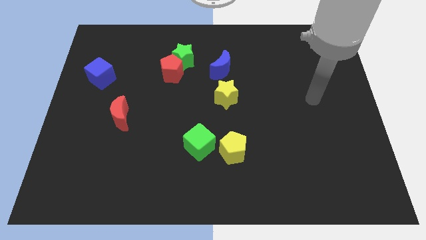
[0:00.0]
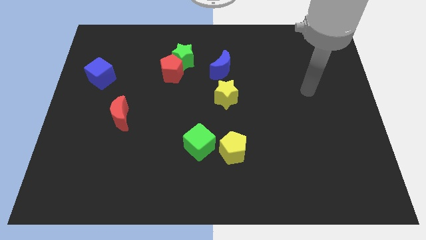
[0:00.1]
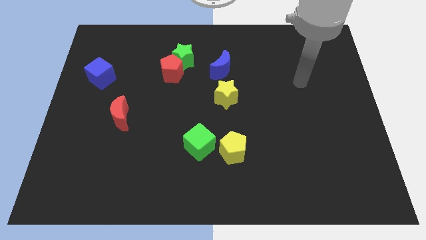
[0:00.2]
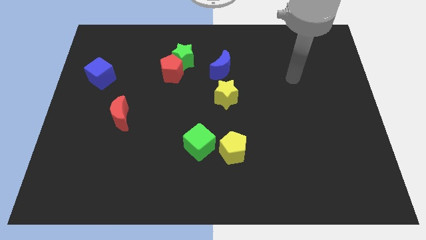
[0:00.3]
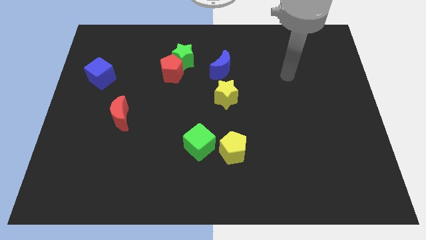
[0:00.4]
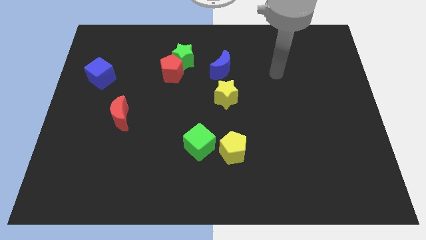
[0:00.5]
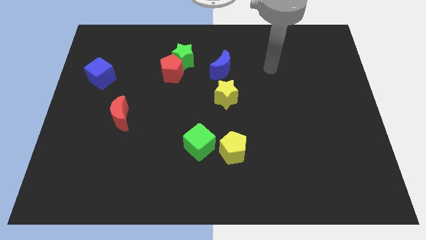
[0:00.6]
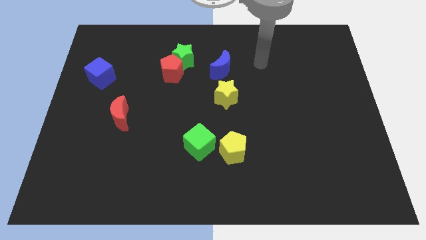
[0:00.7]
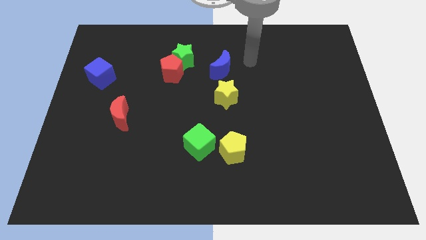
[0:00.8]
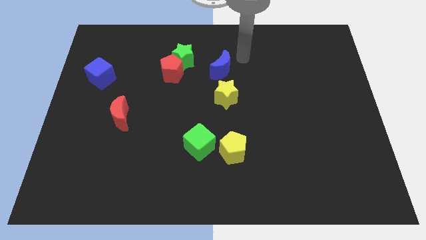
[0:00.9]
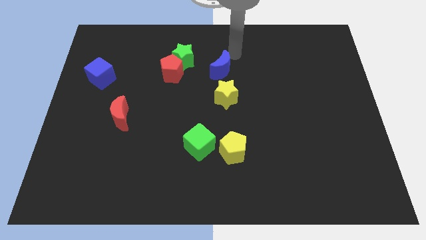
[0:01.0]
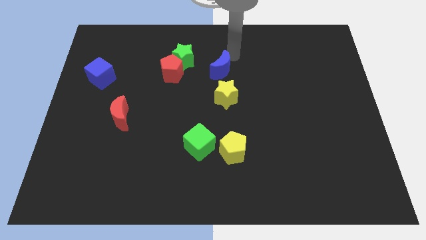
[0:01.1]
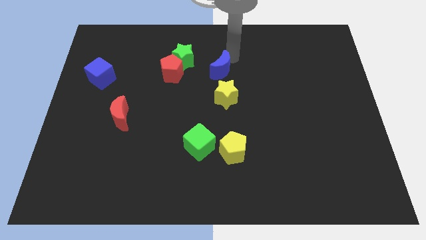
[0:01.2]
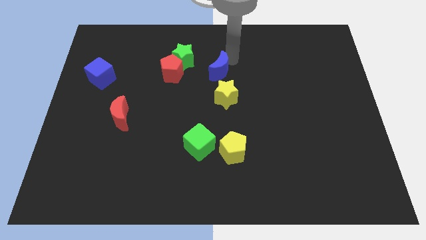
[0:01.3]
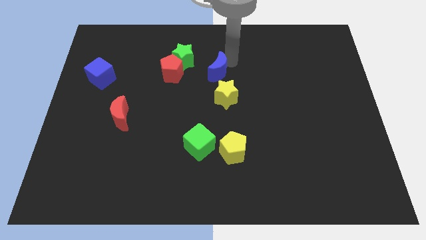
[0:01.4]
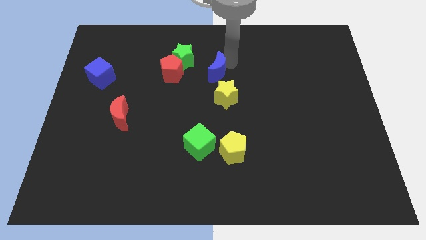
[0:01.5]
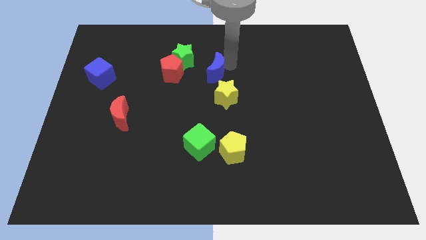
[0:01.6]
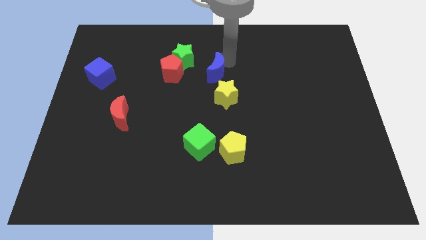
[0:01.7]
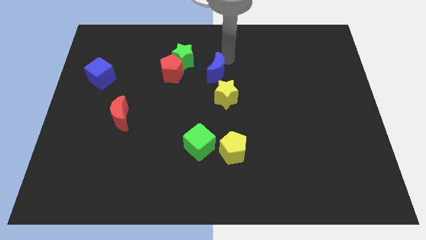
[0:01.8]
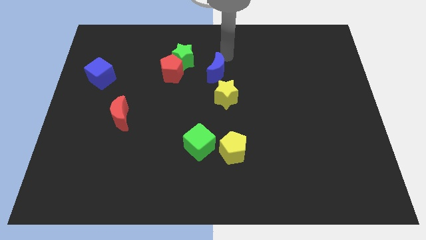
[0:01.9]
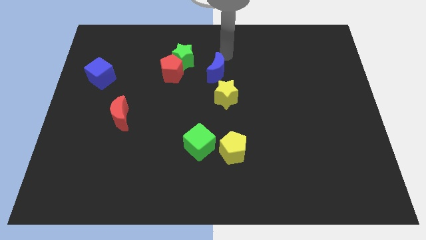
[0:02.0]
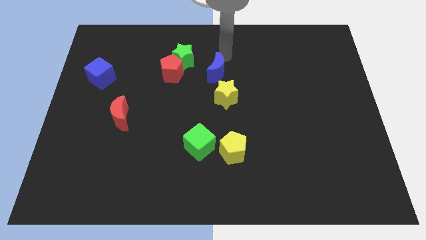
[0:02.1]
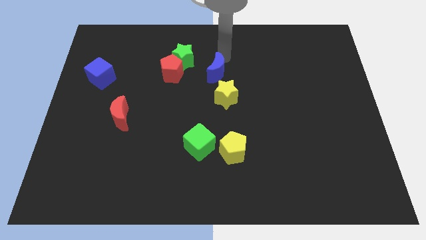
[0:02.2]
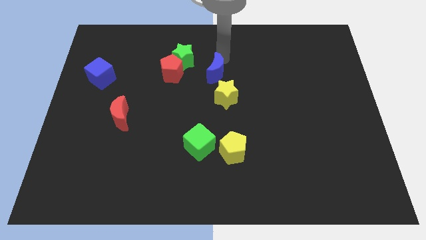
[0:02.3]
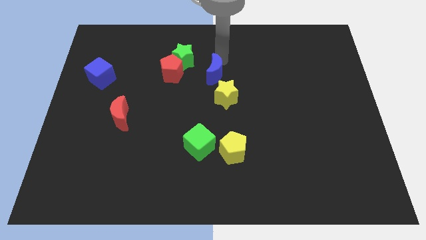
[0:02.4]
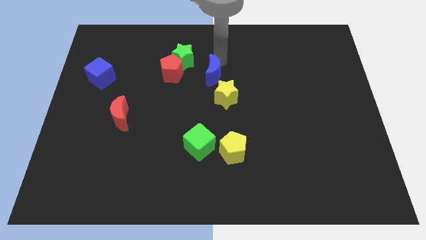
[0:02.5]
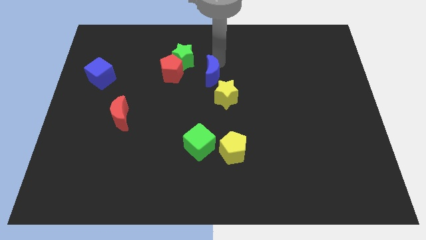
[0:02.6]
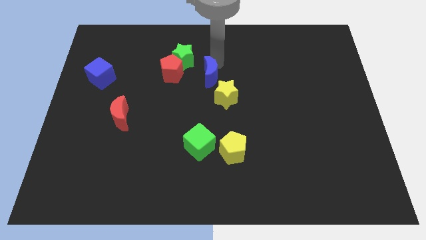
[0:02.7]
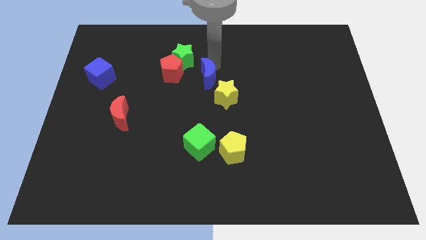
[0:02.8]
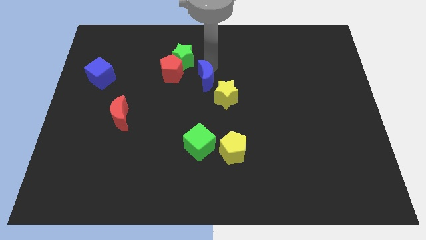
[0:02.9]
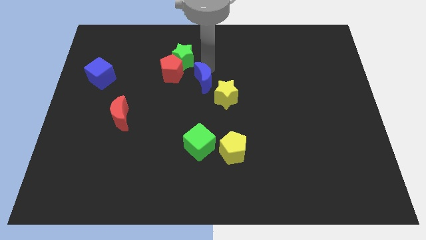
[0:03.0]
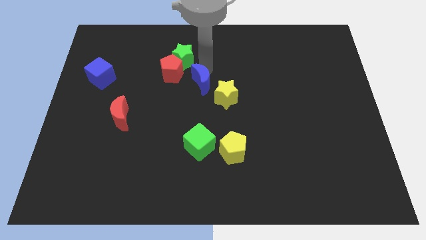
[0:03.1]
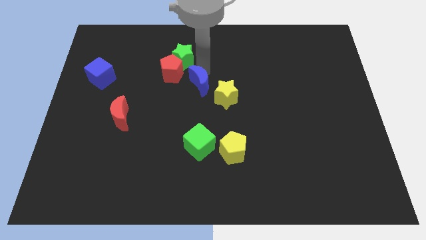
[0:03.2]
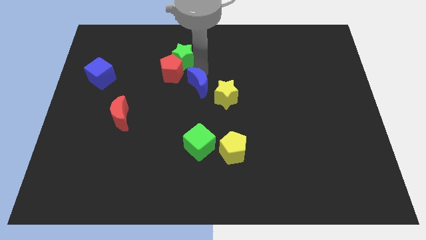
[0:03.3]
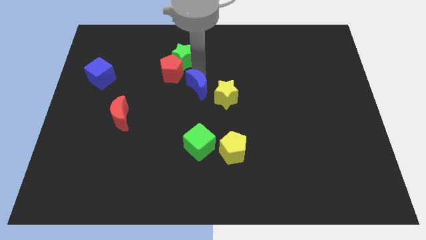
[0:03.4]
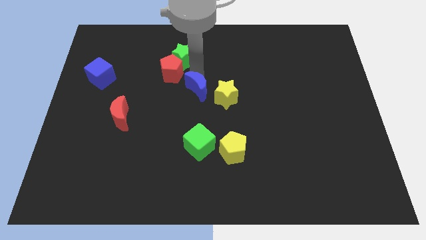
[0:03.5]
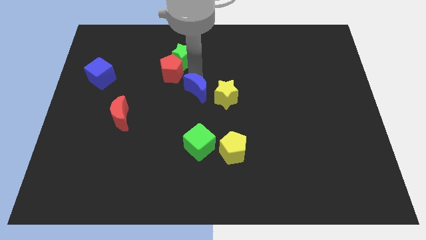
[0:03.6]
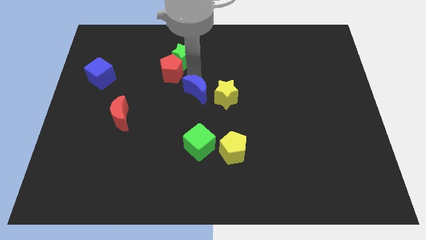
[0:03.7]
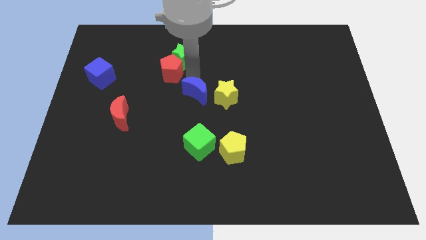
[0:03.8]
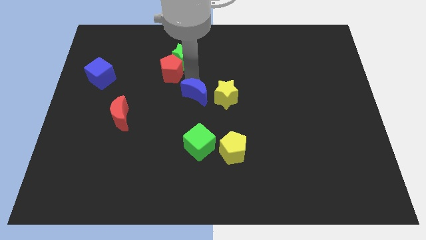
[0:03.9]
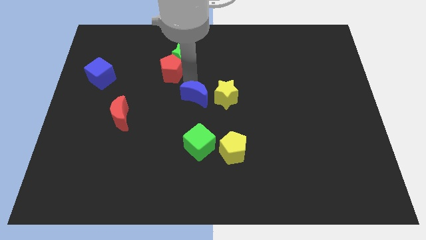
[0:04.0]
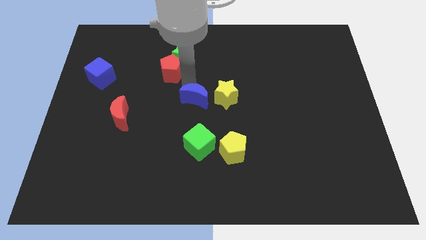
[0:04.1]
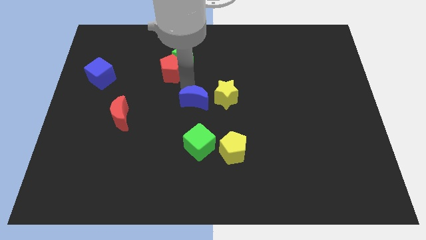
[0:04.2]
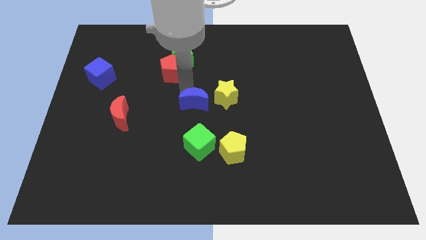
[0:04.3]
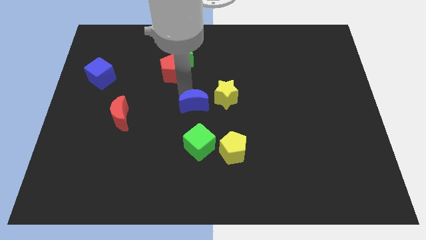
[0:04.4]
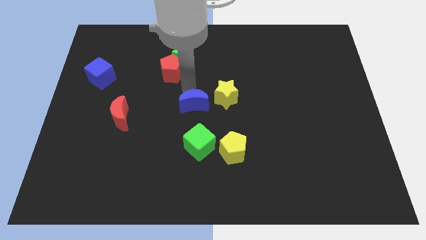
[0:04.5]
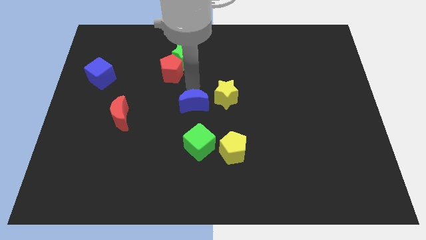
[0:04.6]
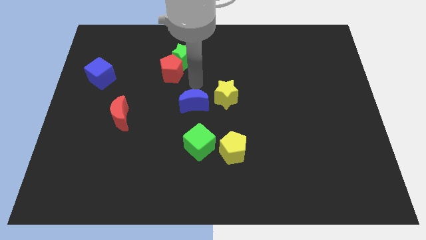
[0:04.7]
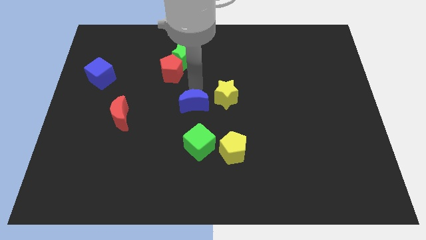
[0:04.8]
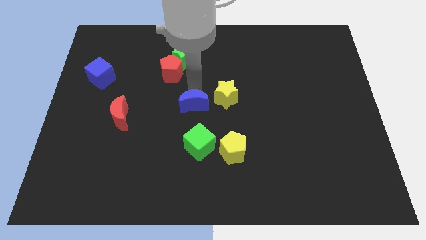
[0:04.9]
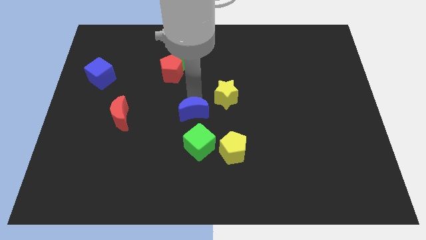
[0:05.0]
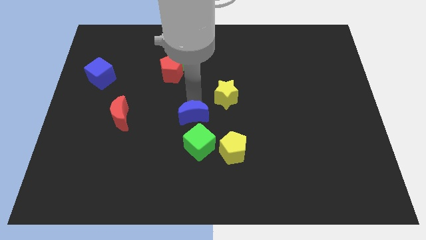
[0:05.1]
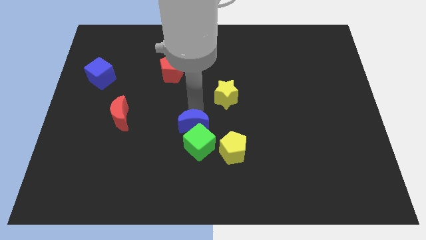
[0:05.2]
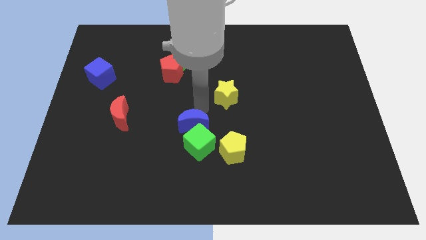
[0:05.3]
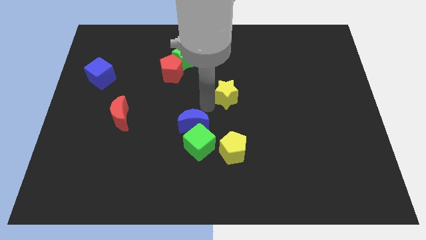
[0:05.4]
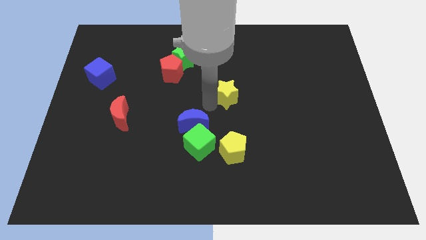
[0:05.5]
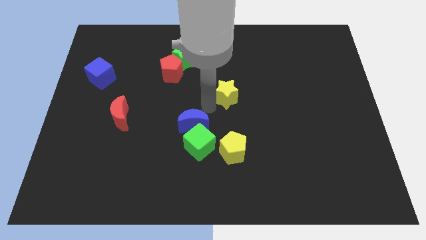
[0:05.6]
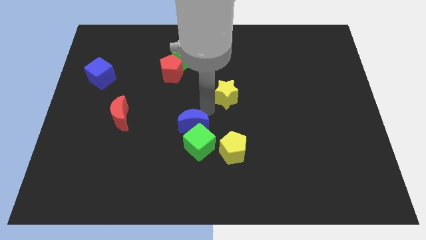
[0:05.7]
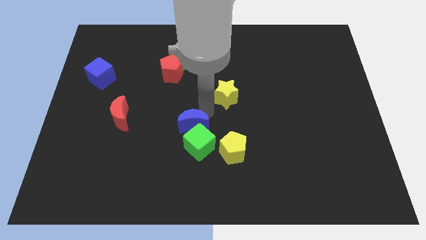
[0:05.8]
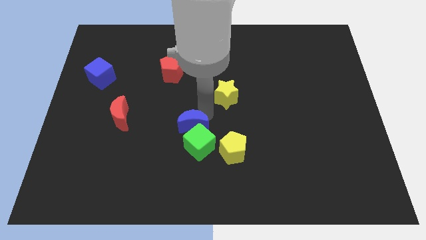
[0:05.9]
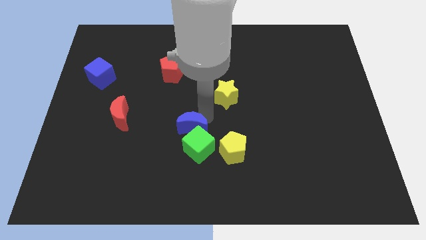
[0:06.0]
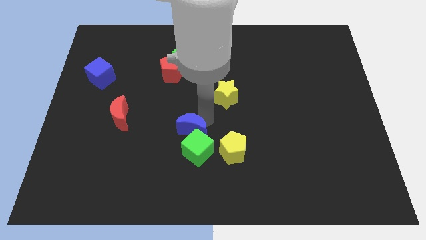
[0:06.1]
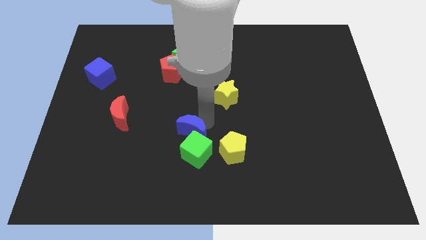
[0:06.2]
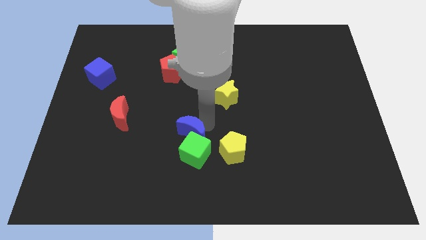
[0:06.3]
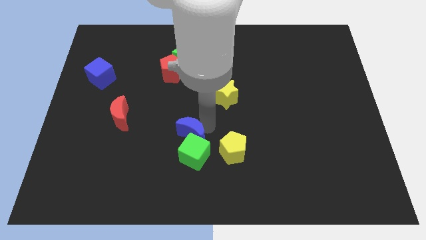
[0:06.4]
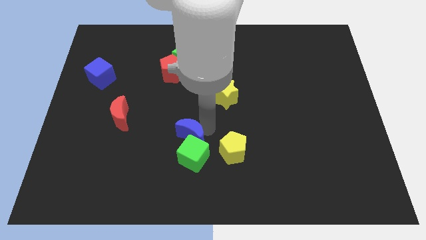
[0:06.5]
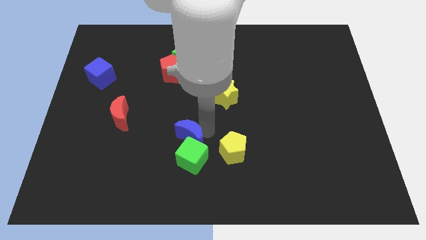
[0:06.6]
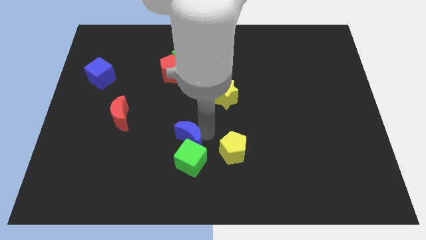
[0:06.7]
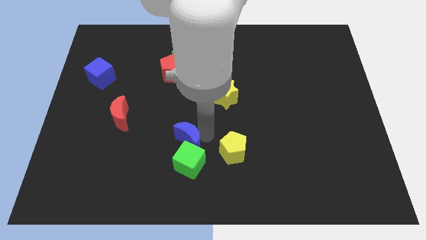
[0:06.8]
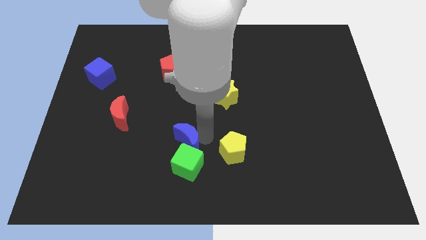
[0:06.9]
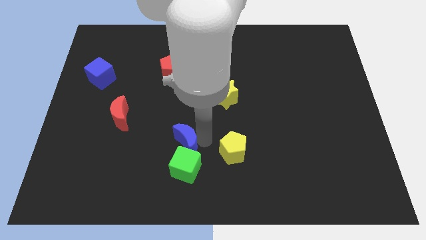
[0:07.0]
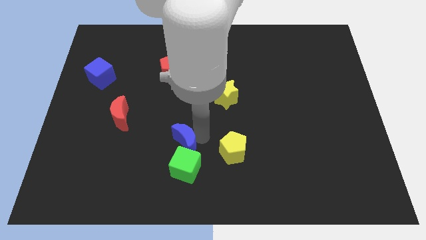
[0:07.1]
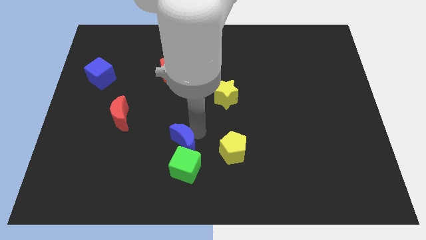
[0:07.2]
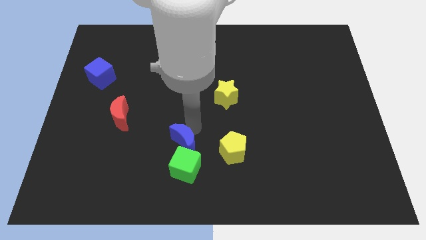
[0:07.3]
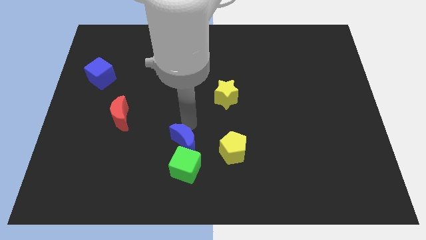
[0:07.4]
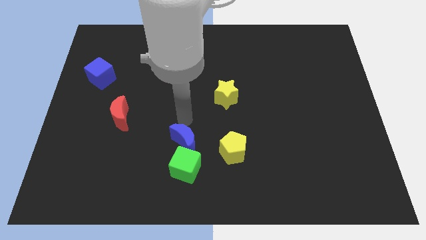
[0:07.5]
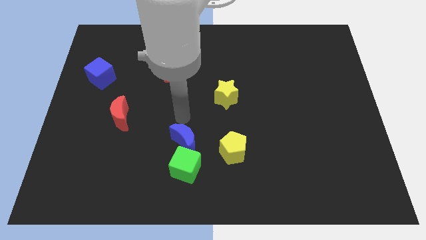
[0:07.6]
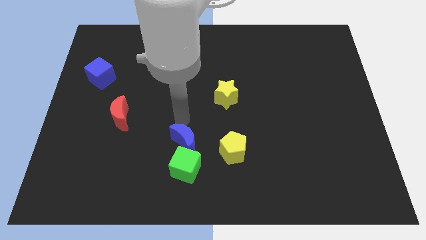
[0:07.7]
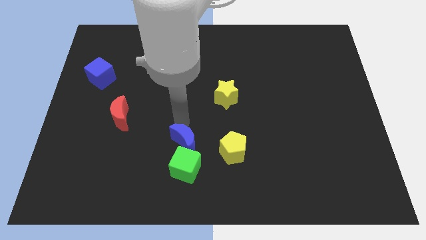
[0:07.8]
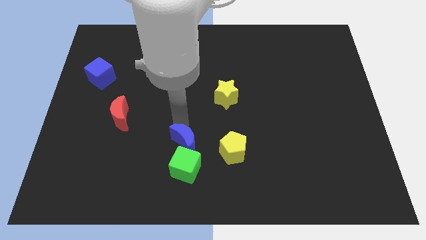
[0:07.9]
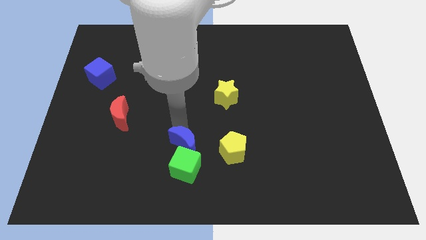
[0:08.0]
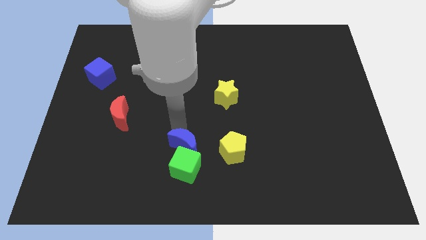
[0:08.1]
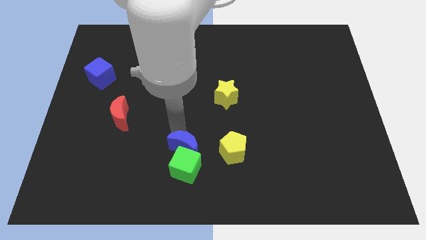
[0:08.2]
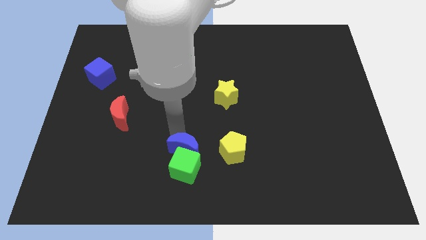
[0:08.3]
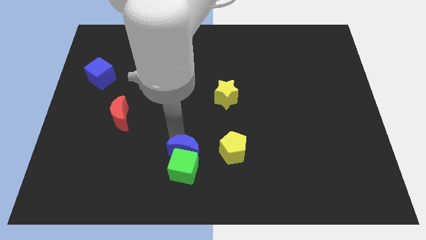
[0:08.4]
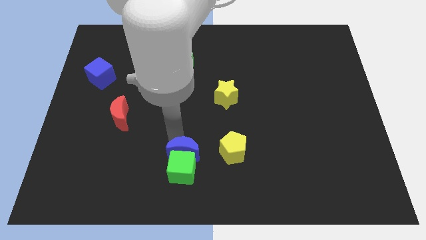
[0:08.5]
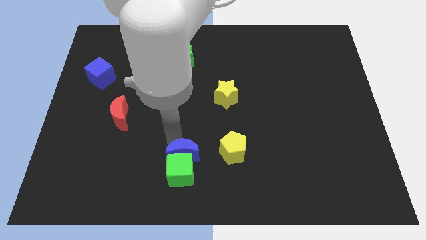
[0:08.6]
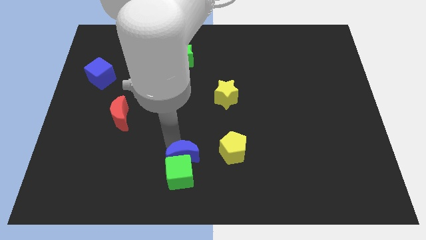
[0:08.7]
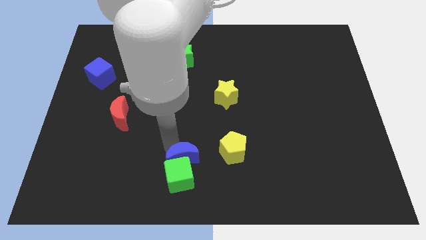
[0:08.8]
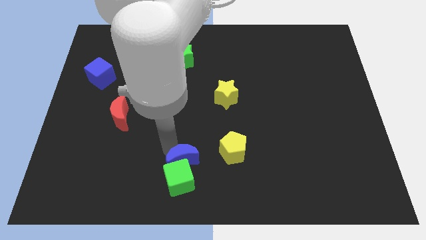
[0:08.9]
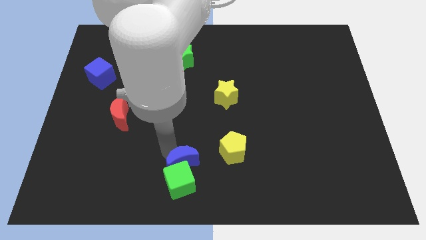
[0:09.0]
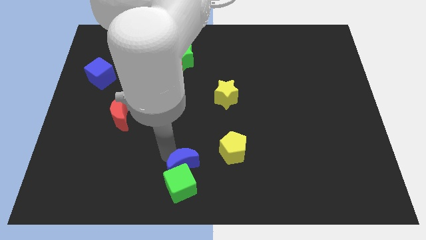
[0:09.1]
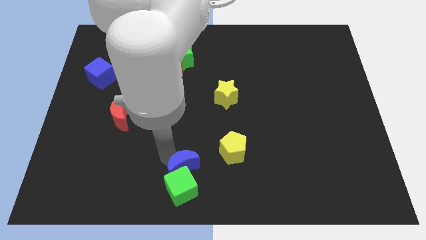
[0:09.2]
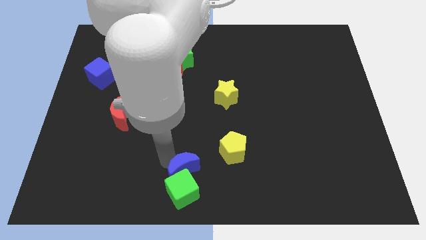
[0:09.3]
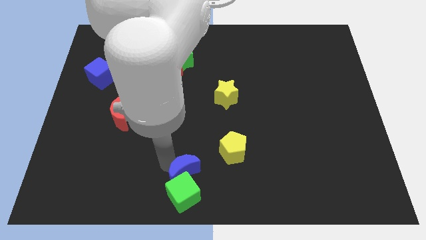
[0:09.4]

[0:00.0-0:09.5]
push the blue moon to the bottom left of the yellow pentagon
